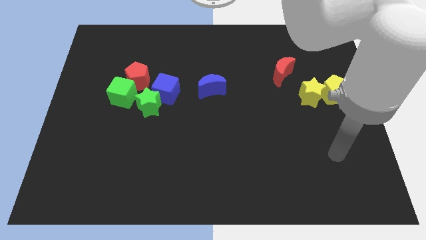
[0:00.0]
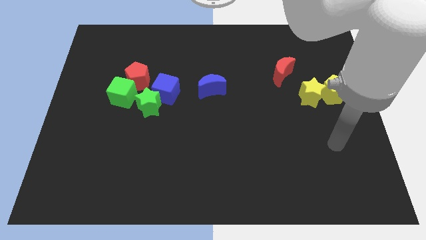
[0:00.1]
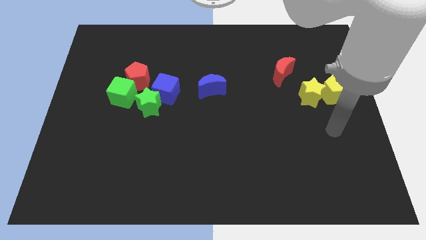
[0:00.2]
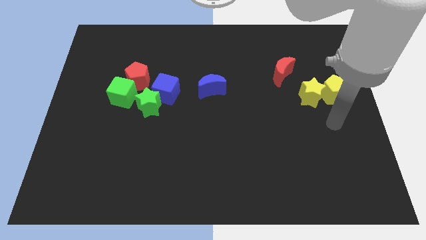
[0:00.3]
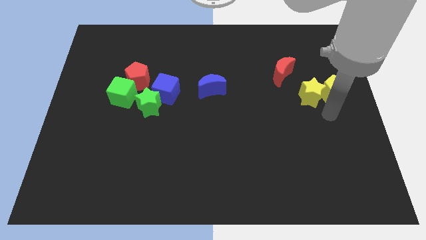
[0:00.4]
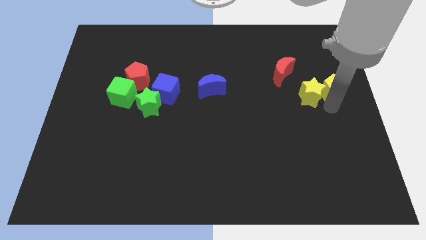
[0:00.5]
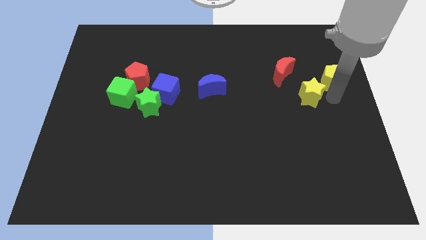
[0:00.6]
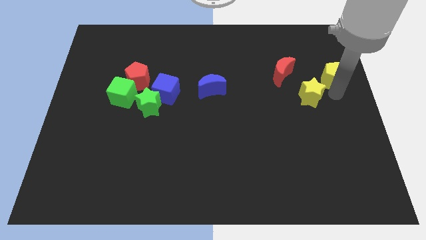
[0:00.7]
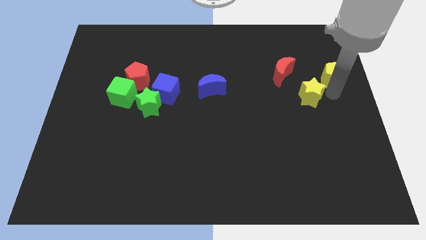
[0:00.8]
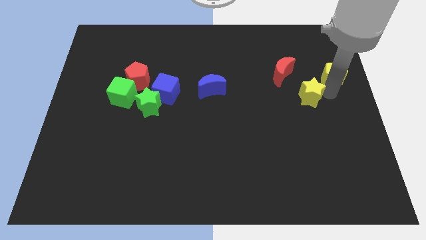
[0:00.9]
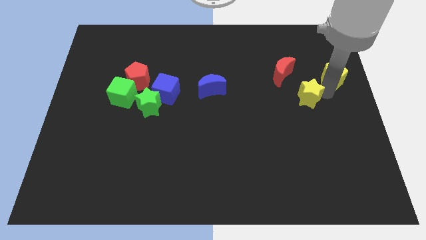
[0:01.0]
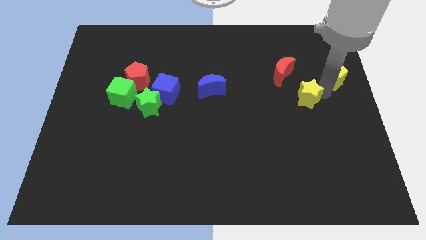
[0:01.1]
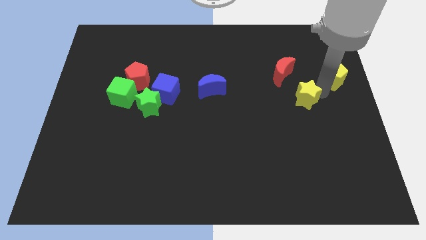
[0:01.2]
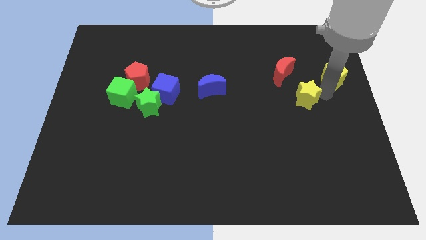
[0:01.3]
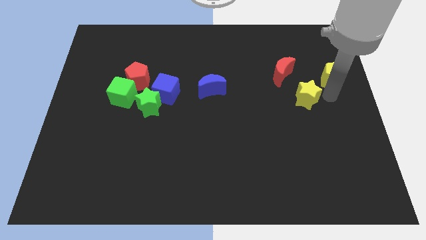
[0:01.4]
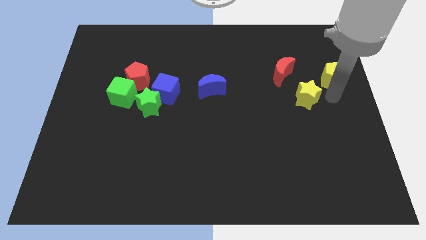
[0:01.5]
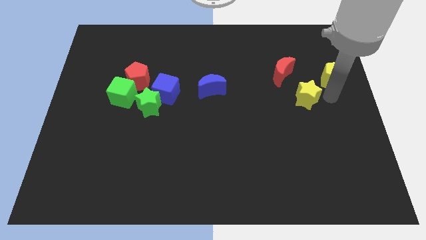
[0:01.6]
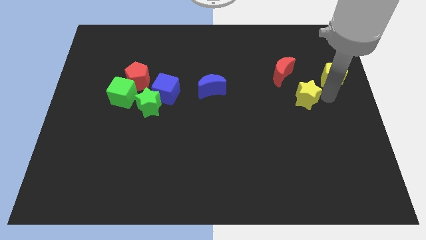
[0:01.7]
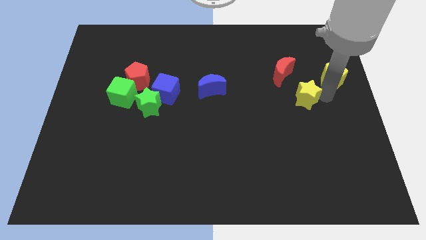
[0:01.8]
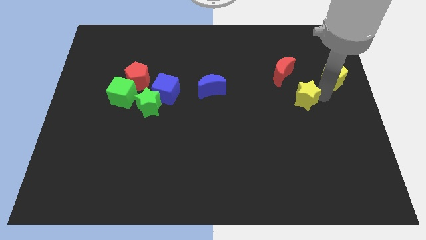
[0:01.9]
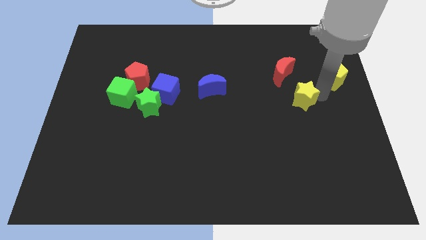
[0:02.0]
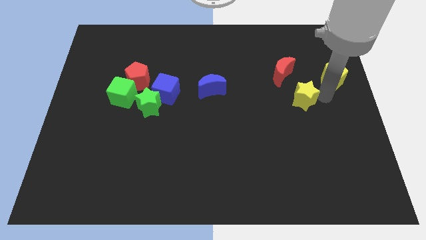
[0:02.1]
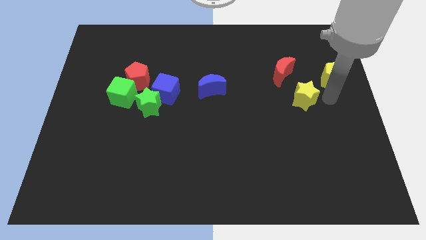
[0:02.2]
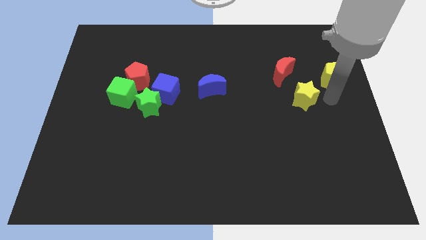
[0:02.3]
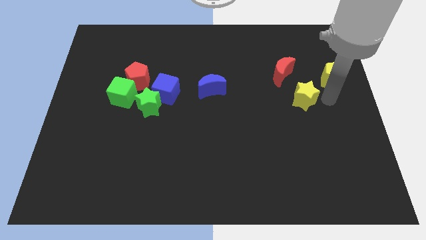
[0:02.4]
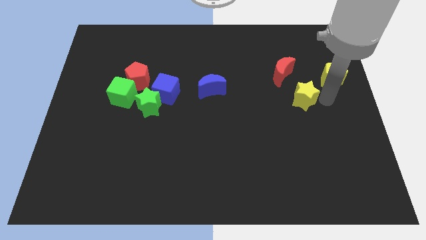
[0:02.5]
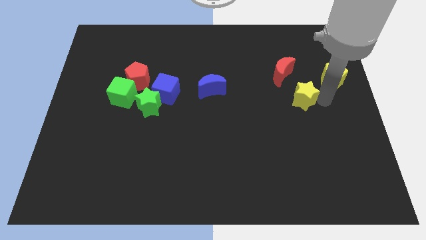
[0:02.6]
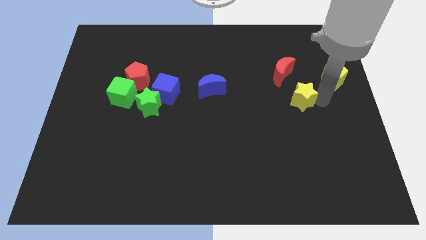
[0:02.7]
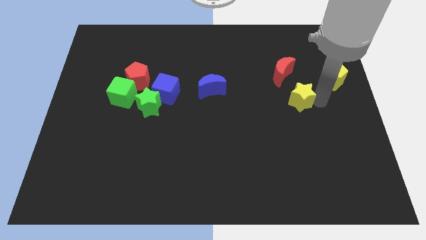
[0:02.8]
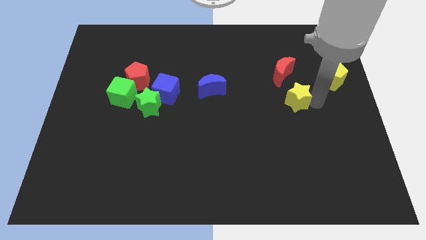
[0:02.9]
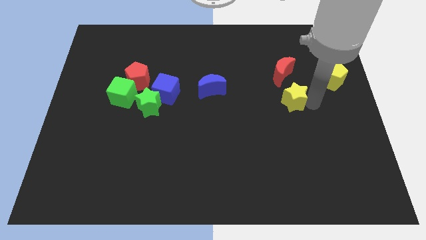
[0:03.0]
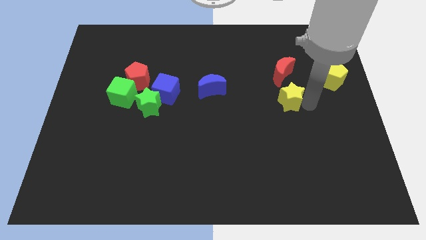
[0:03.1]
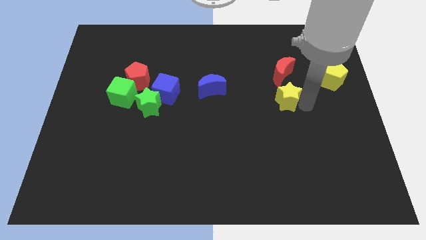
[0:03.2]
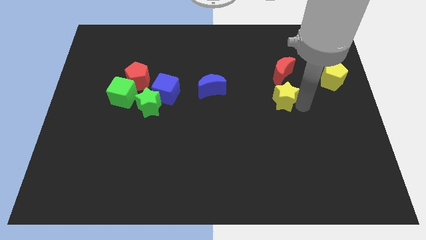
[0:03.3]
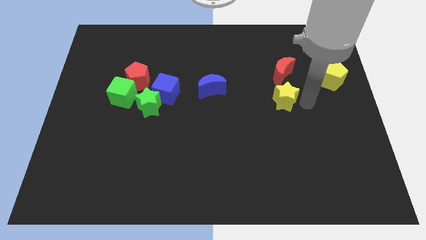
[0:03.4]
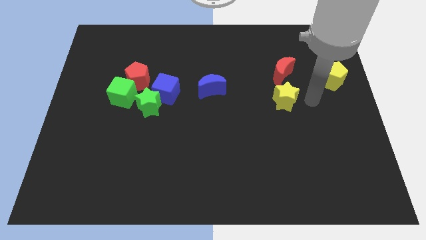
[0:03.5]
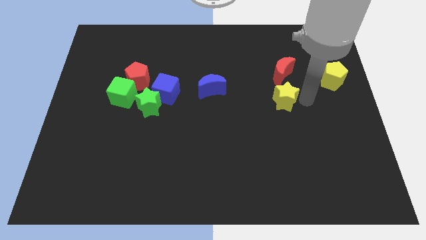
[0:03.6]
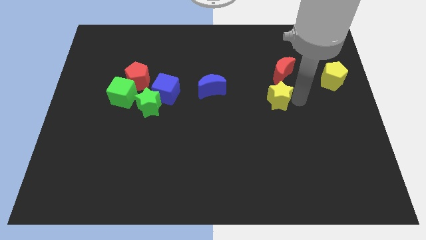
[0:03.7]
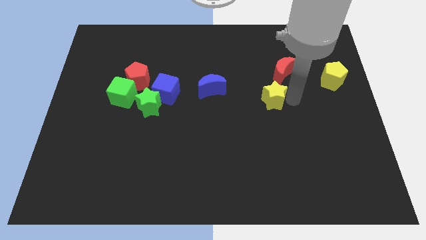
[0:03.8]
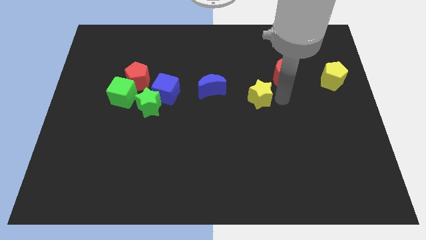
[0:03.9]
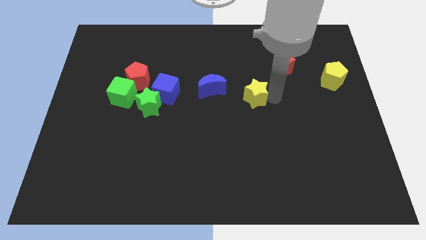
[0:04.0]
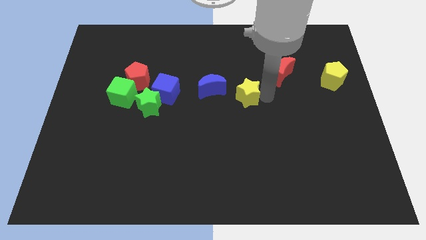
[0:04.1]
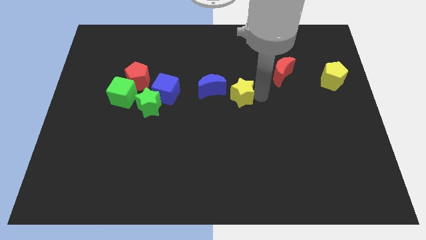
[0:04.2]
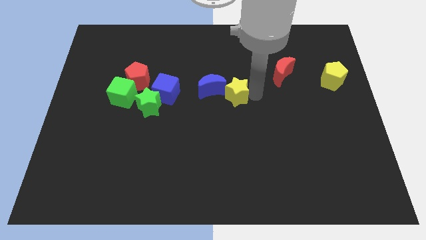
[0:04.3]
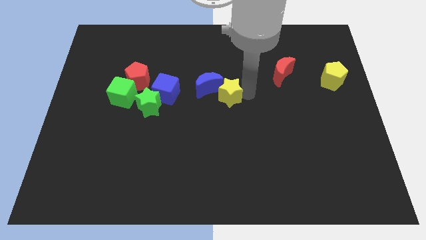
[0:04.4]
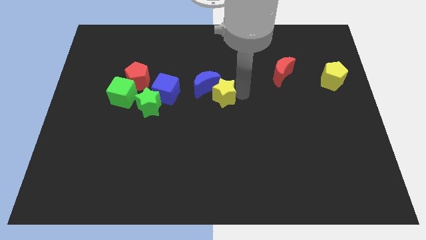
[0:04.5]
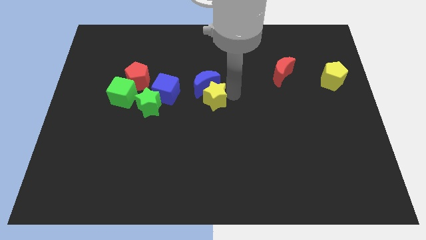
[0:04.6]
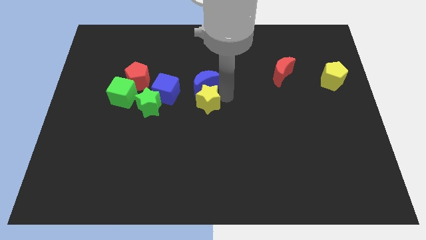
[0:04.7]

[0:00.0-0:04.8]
push the yellow star to the bottom left of the blue moon

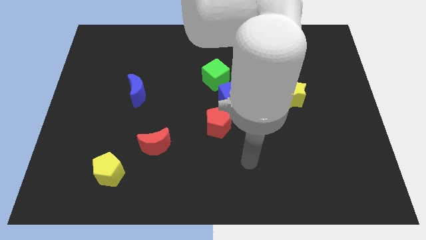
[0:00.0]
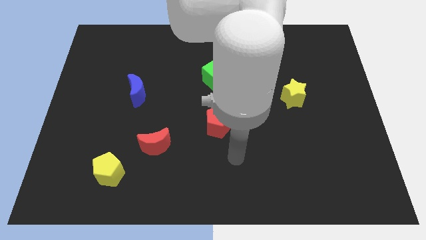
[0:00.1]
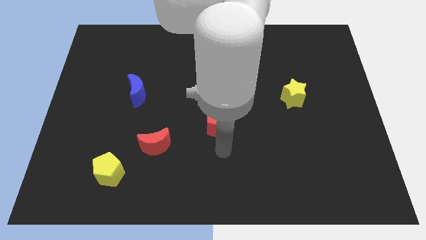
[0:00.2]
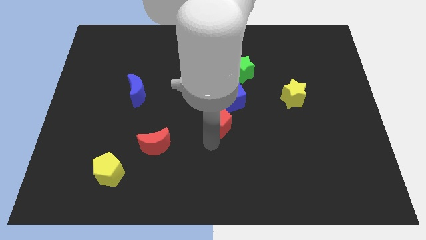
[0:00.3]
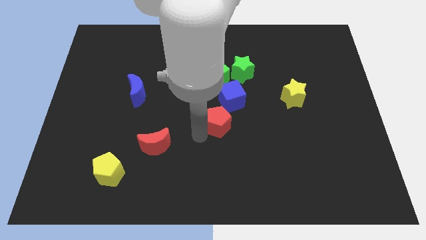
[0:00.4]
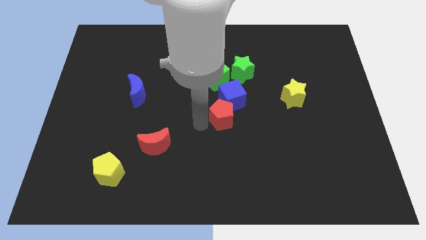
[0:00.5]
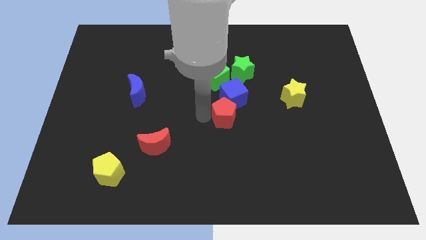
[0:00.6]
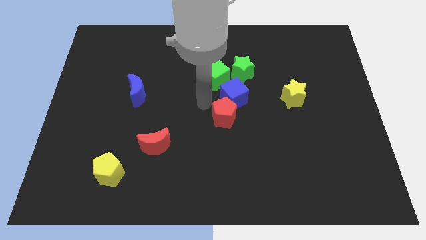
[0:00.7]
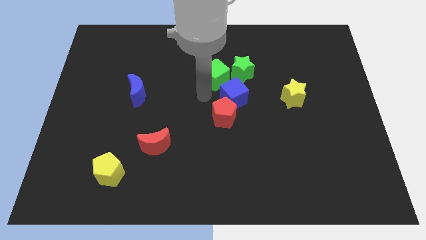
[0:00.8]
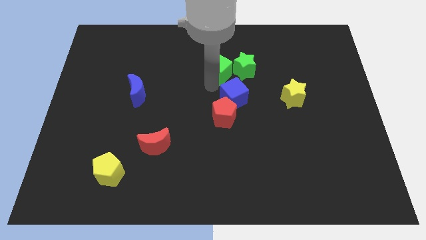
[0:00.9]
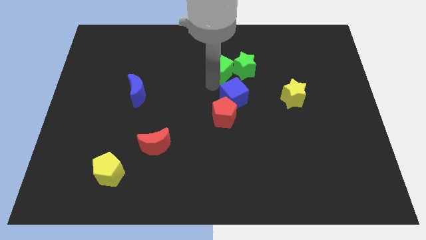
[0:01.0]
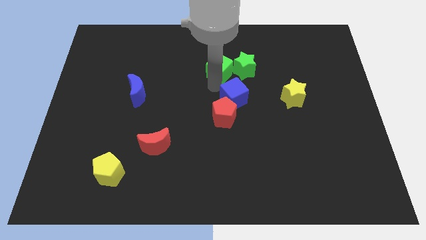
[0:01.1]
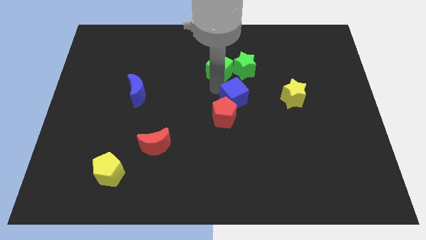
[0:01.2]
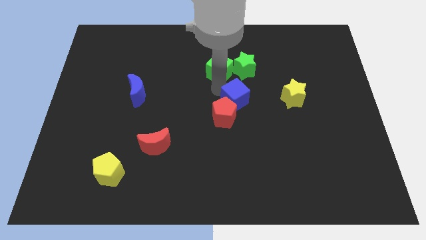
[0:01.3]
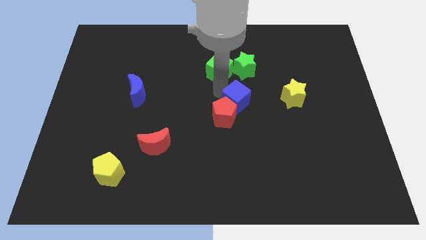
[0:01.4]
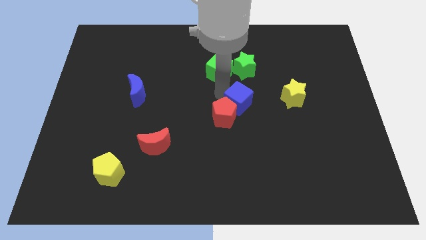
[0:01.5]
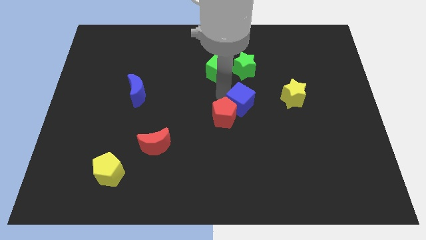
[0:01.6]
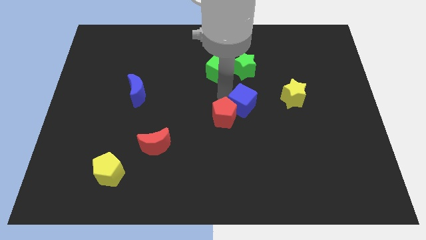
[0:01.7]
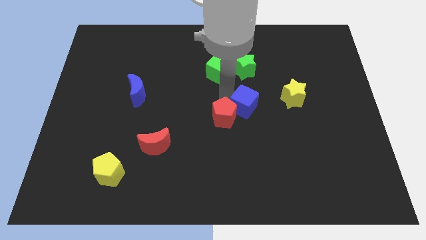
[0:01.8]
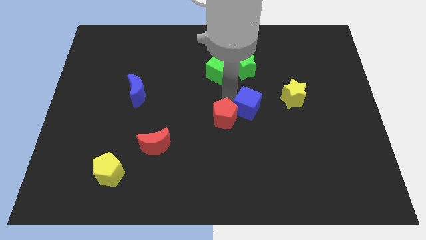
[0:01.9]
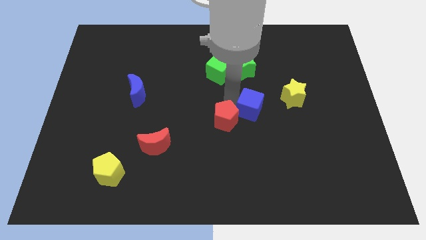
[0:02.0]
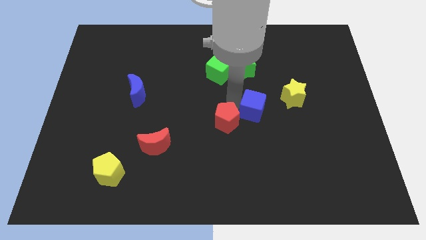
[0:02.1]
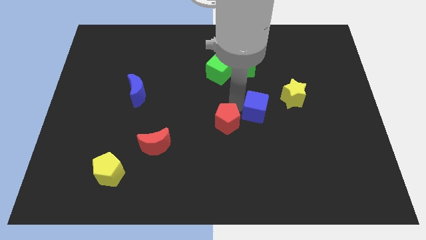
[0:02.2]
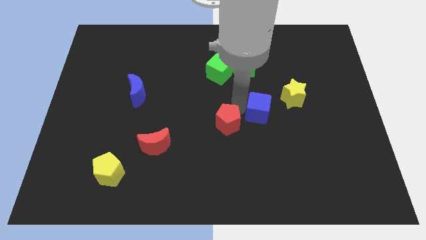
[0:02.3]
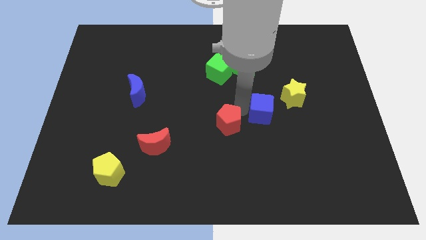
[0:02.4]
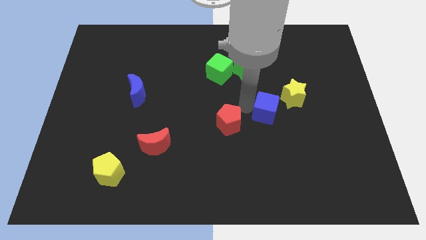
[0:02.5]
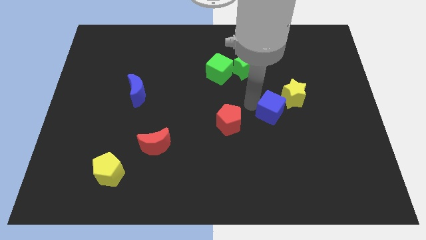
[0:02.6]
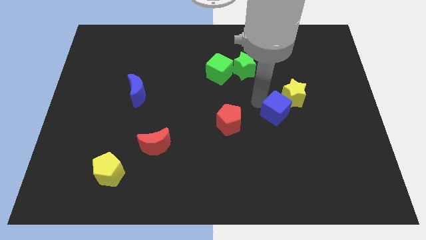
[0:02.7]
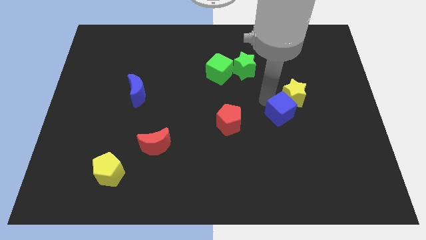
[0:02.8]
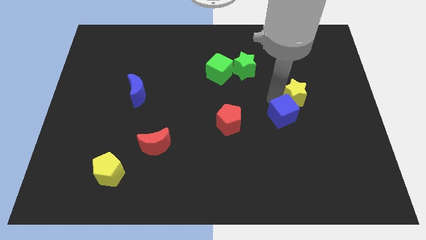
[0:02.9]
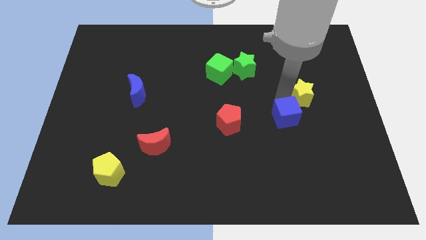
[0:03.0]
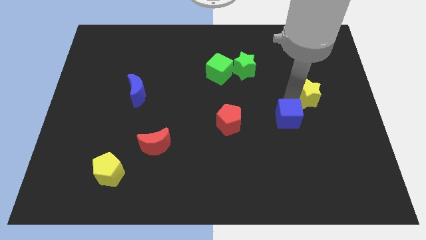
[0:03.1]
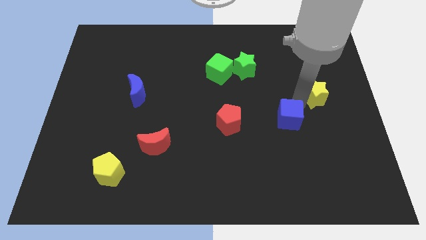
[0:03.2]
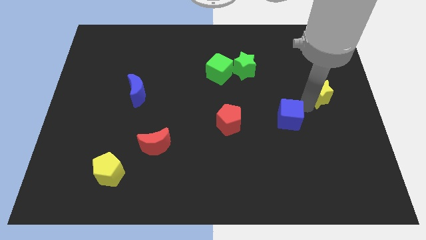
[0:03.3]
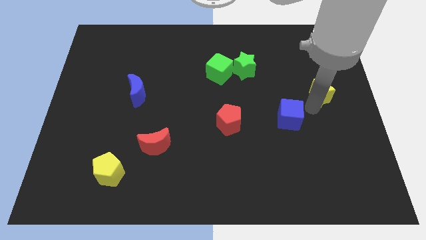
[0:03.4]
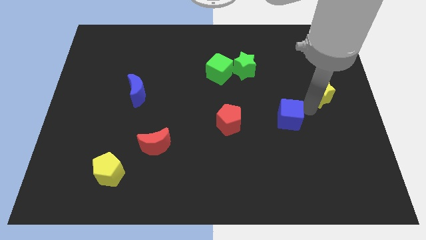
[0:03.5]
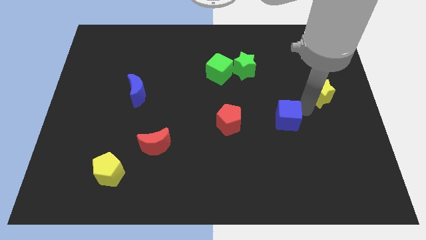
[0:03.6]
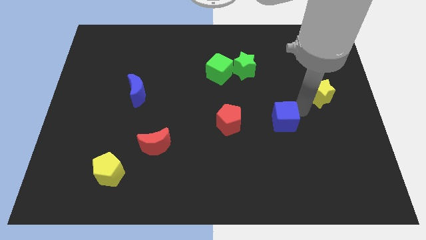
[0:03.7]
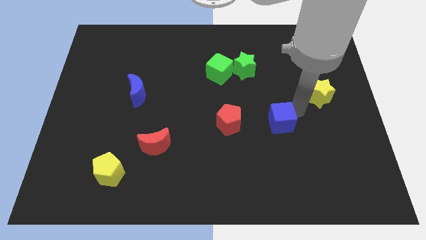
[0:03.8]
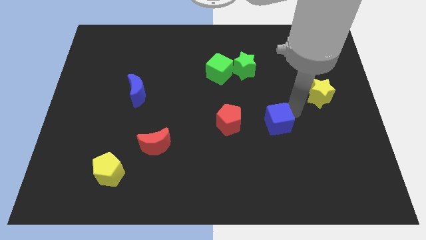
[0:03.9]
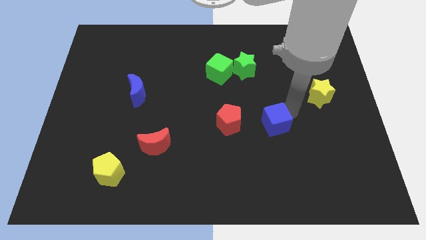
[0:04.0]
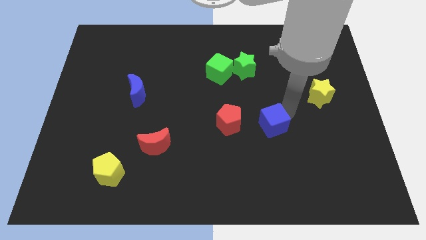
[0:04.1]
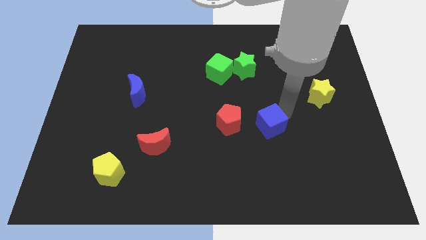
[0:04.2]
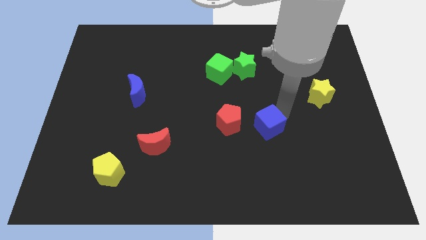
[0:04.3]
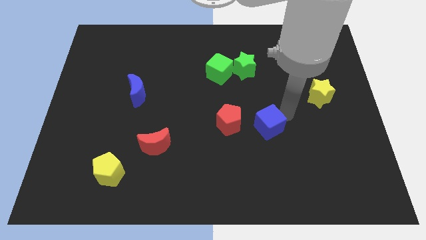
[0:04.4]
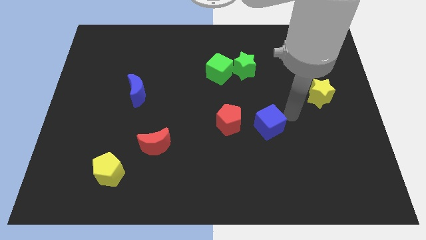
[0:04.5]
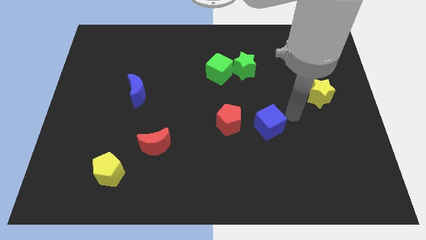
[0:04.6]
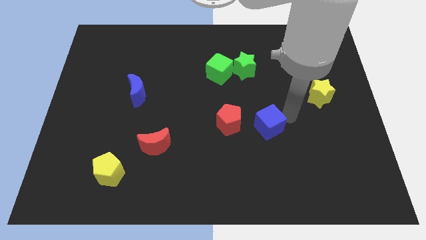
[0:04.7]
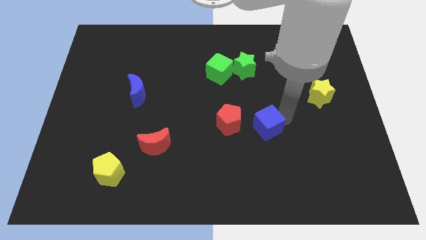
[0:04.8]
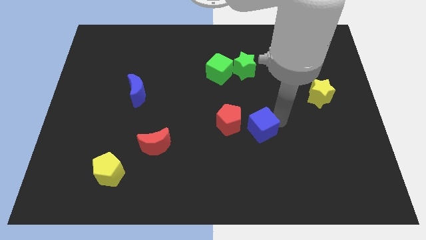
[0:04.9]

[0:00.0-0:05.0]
move the blue cube to the bottom right side of the red pentagon
